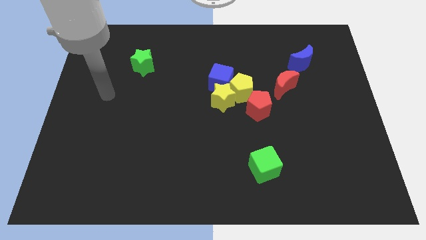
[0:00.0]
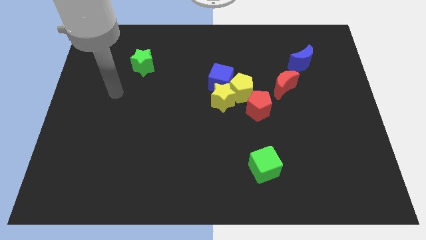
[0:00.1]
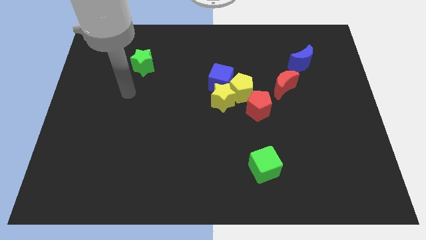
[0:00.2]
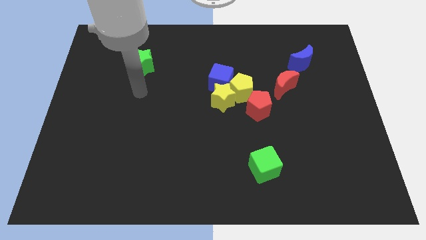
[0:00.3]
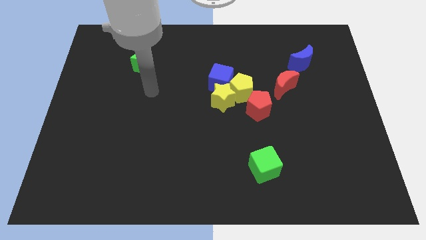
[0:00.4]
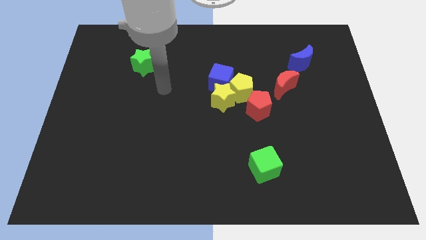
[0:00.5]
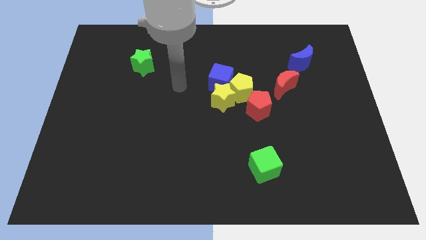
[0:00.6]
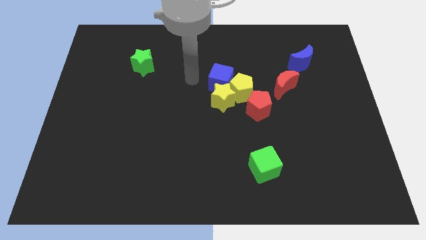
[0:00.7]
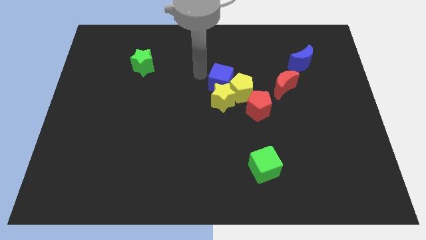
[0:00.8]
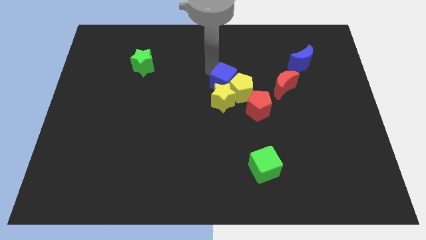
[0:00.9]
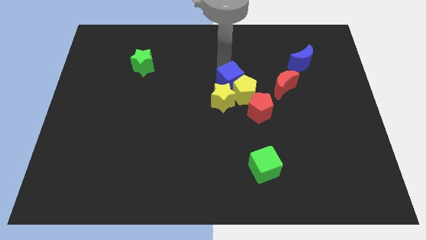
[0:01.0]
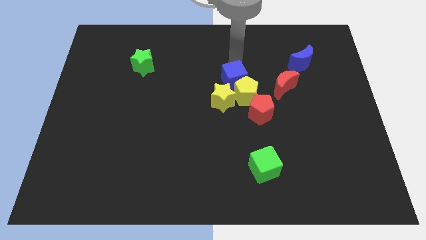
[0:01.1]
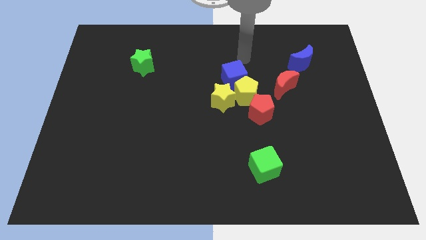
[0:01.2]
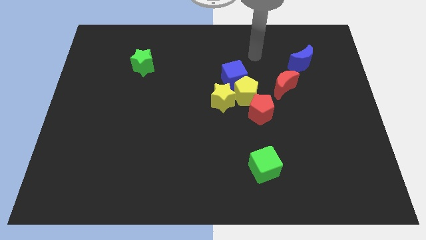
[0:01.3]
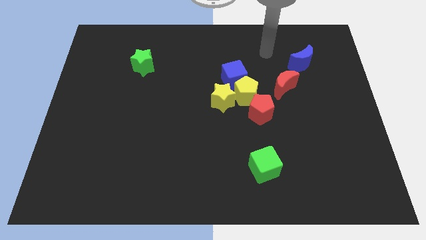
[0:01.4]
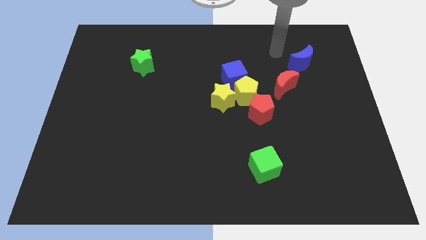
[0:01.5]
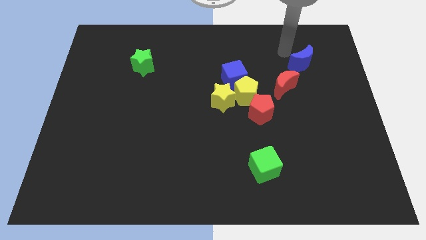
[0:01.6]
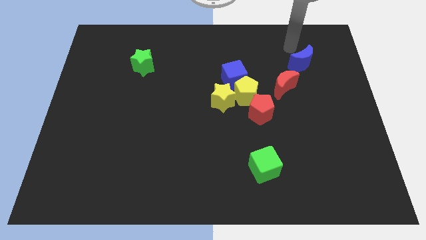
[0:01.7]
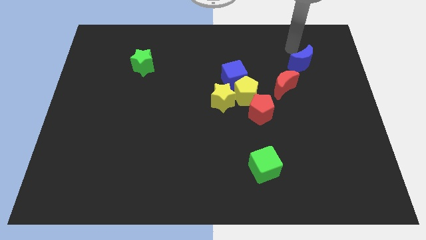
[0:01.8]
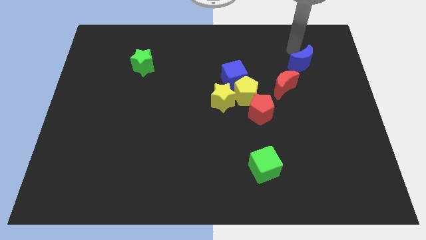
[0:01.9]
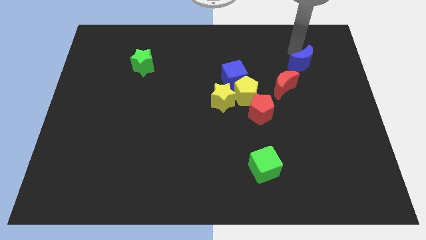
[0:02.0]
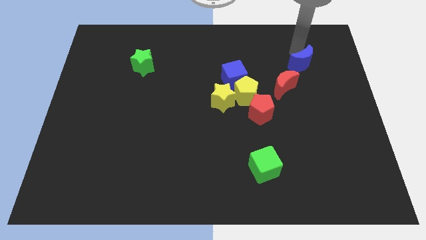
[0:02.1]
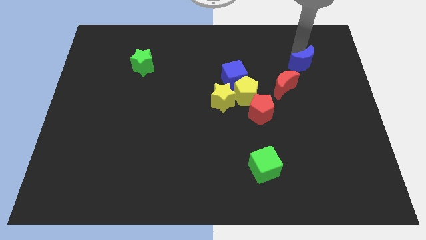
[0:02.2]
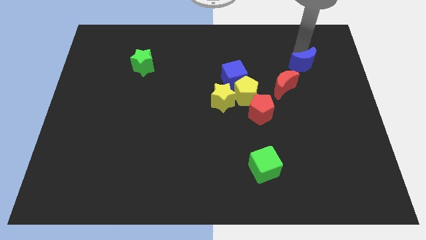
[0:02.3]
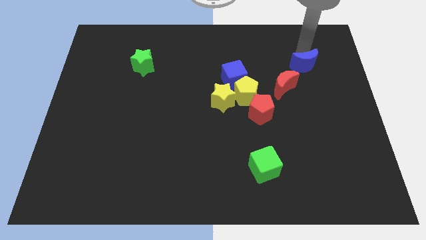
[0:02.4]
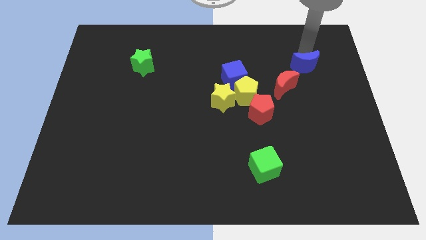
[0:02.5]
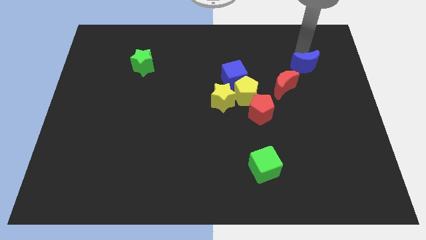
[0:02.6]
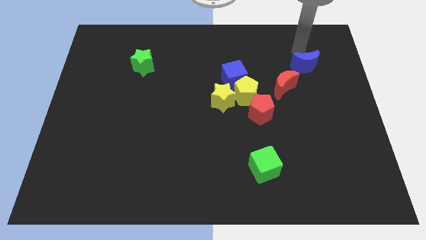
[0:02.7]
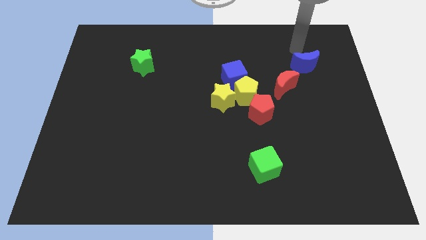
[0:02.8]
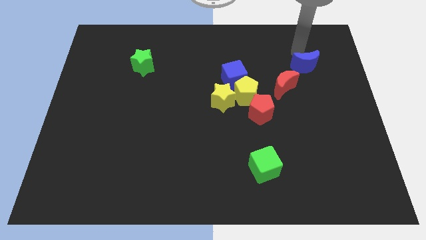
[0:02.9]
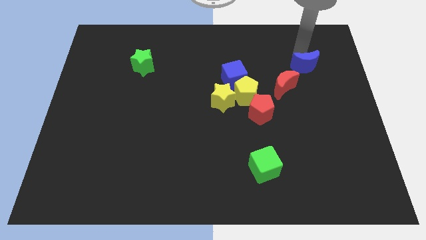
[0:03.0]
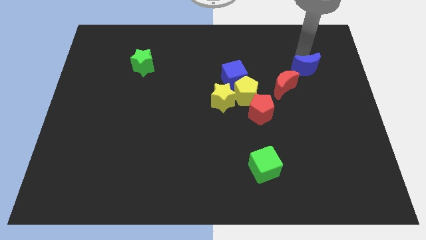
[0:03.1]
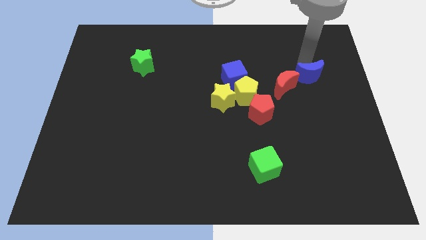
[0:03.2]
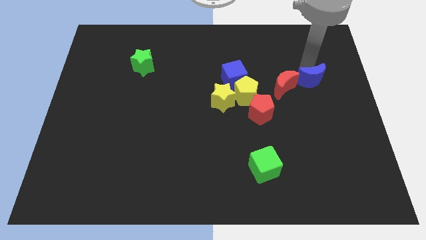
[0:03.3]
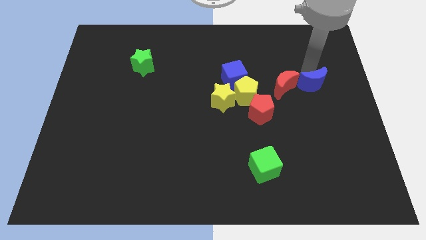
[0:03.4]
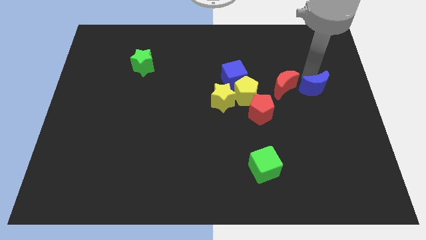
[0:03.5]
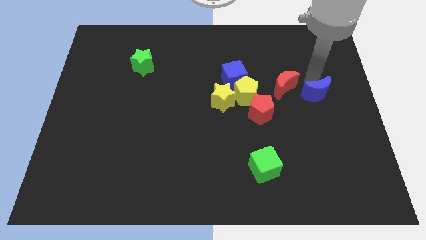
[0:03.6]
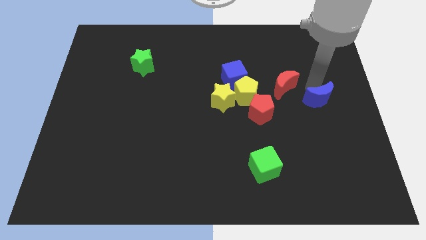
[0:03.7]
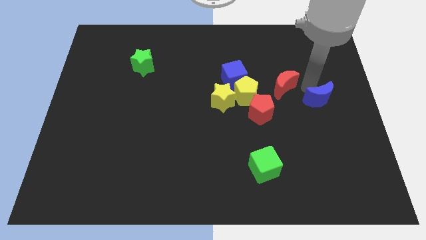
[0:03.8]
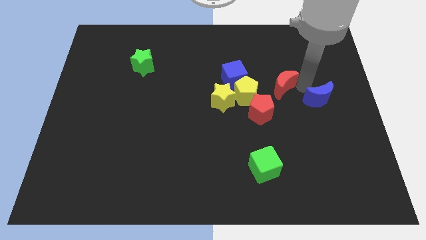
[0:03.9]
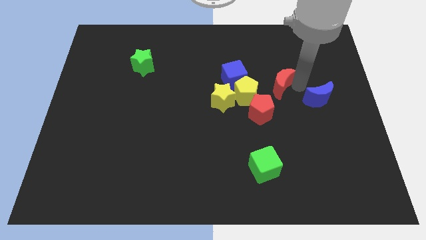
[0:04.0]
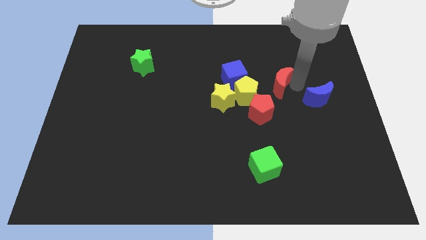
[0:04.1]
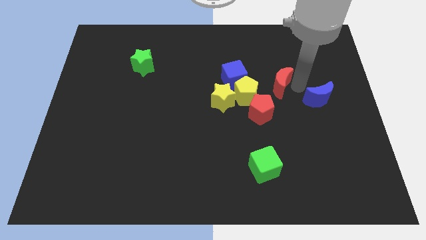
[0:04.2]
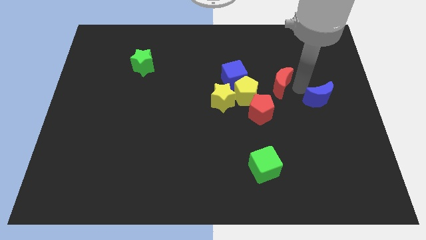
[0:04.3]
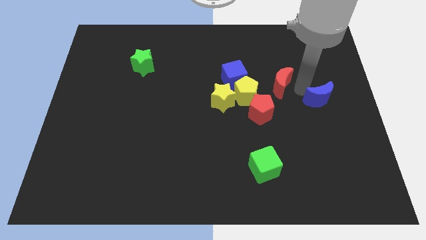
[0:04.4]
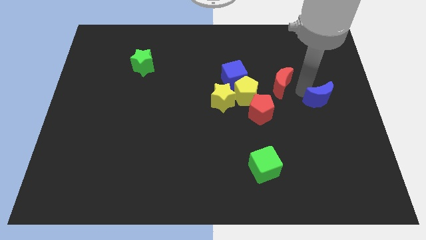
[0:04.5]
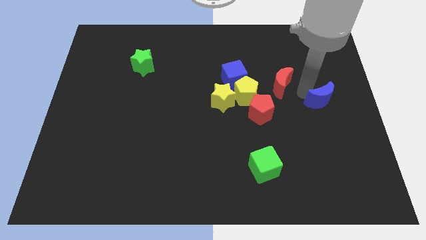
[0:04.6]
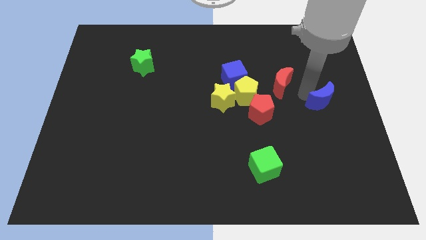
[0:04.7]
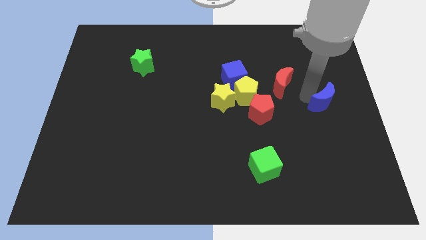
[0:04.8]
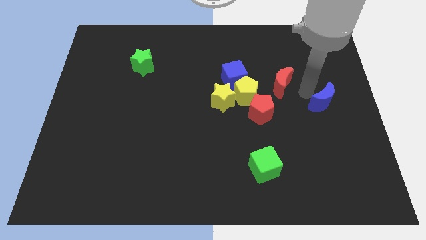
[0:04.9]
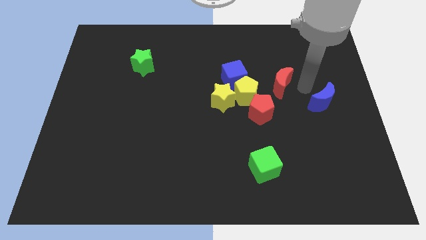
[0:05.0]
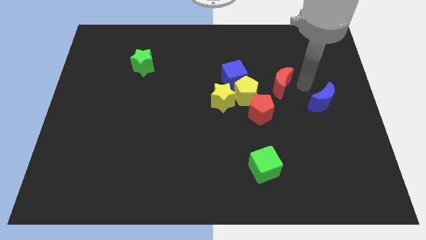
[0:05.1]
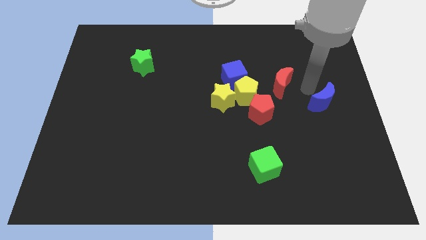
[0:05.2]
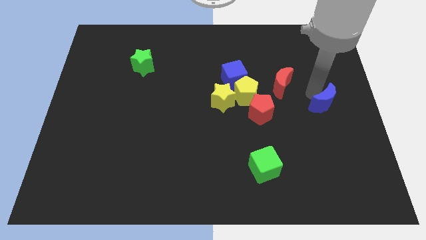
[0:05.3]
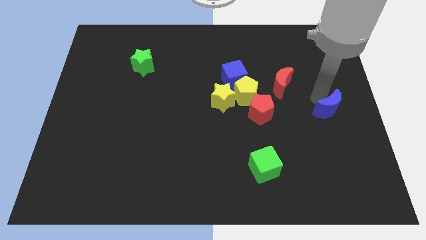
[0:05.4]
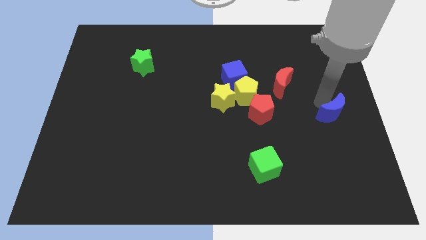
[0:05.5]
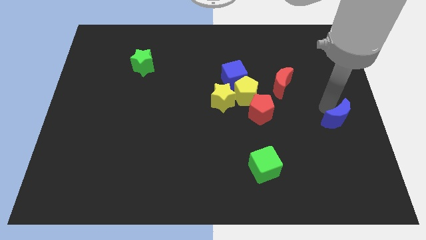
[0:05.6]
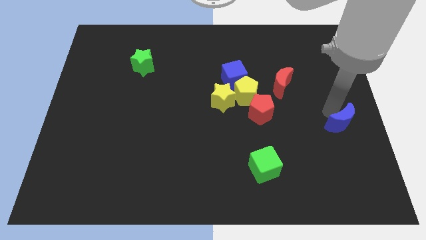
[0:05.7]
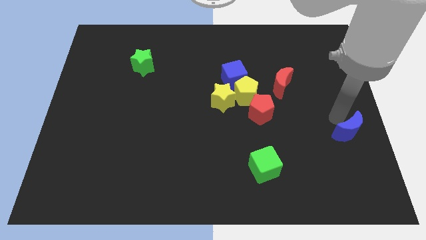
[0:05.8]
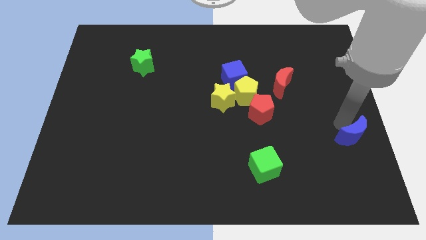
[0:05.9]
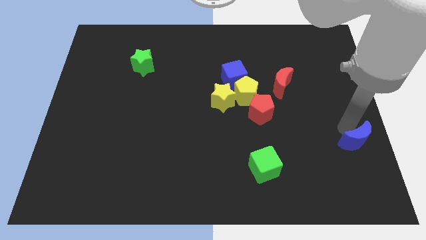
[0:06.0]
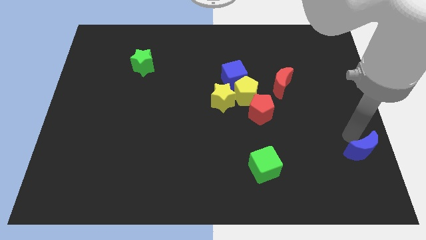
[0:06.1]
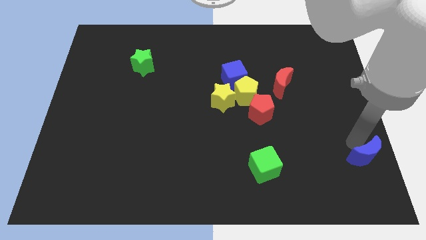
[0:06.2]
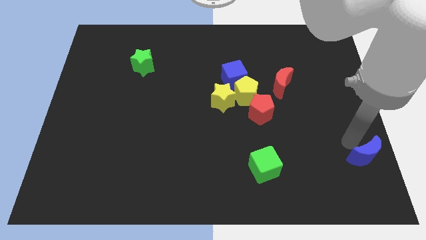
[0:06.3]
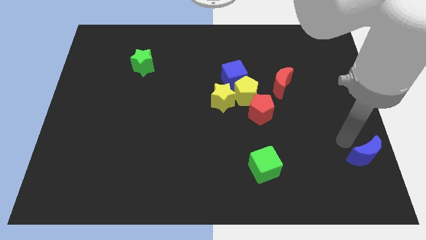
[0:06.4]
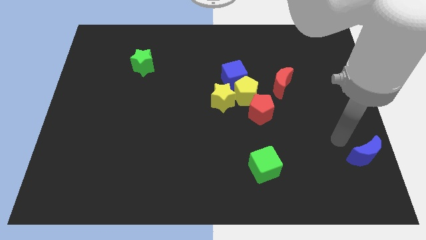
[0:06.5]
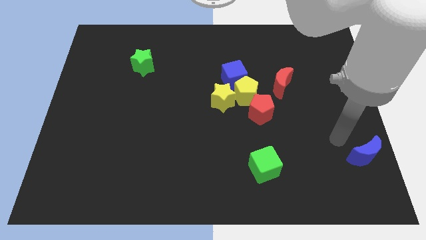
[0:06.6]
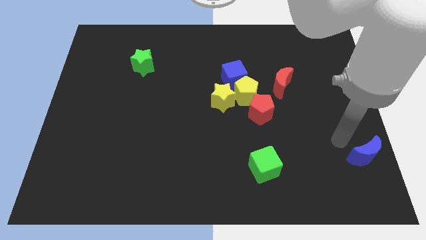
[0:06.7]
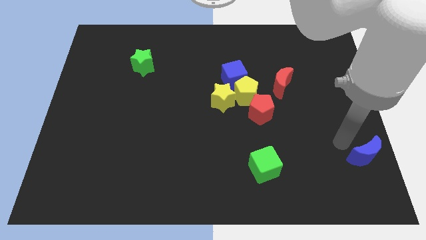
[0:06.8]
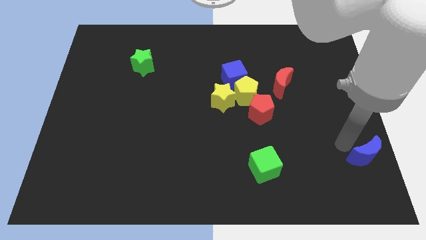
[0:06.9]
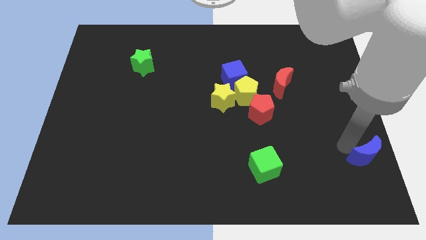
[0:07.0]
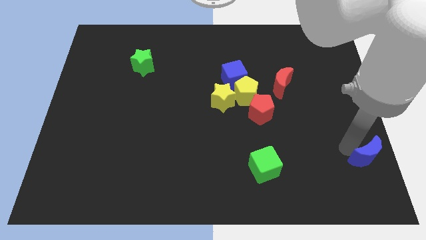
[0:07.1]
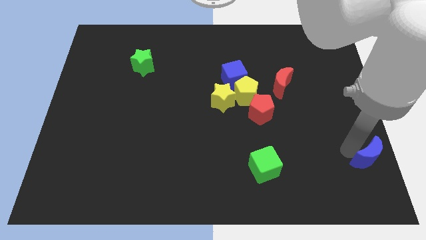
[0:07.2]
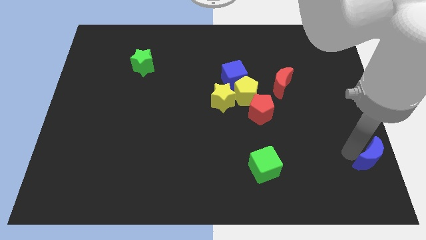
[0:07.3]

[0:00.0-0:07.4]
put the blue moon to the bottom right corner
